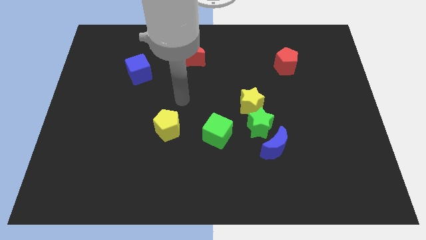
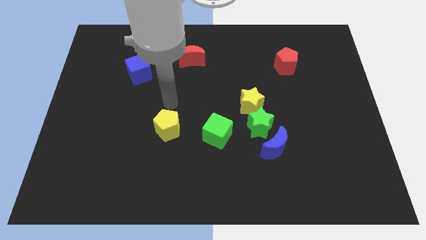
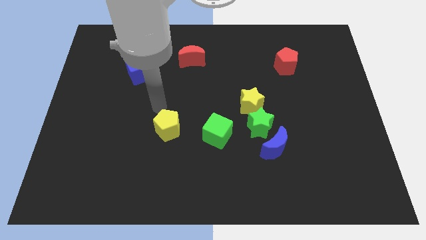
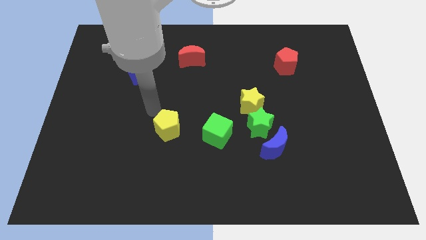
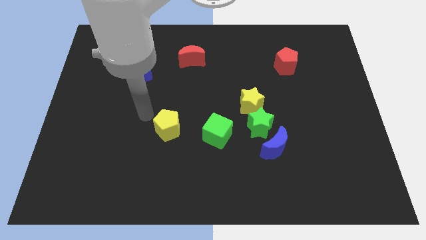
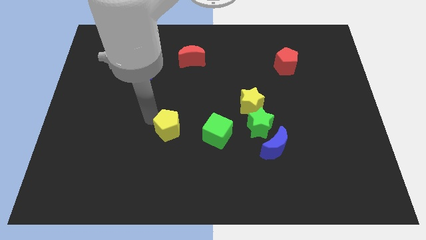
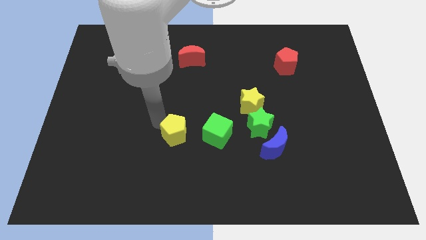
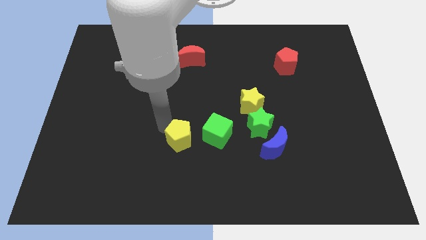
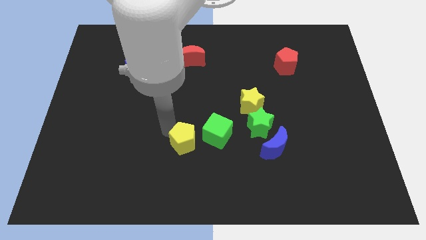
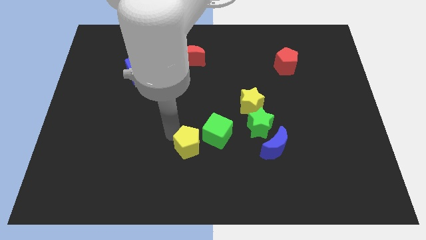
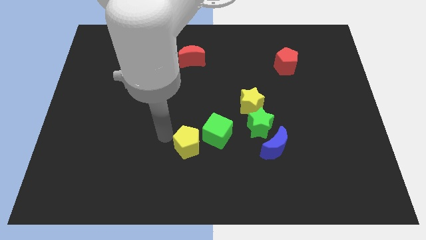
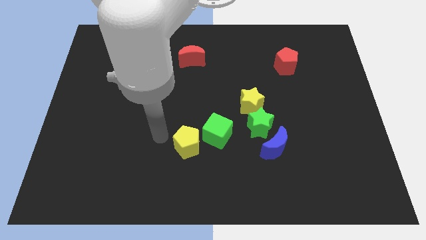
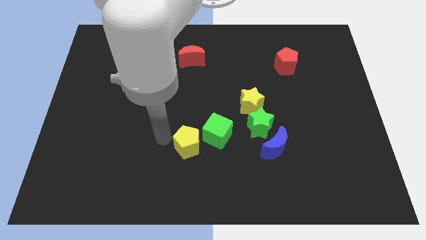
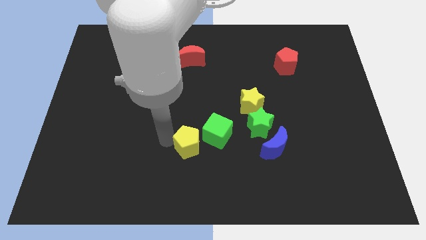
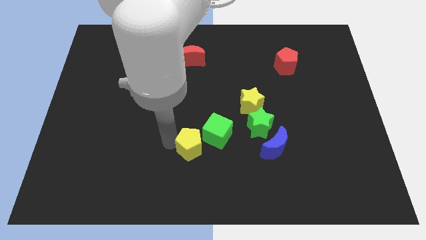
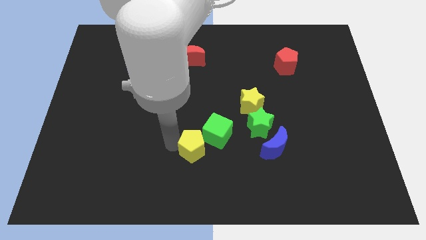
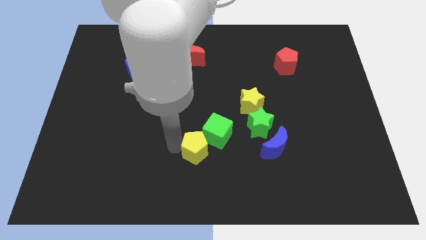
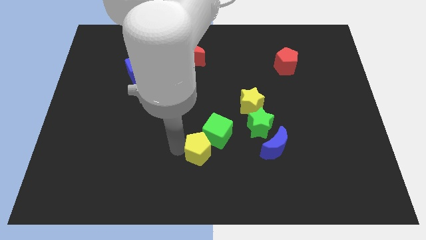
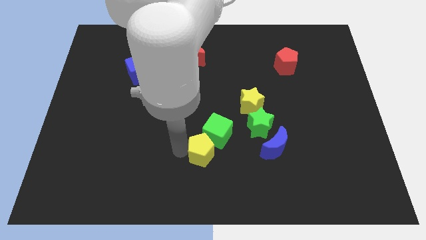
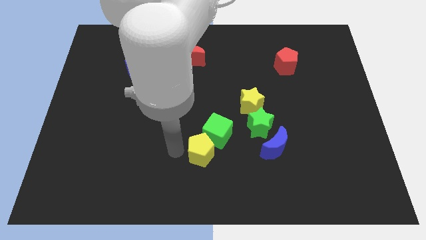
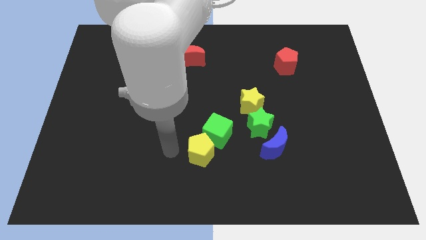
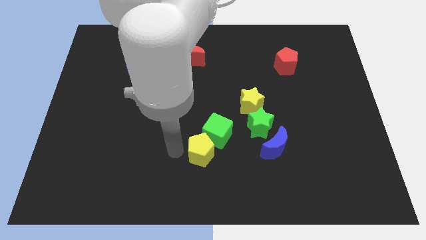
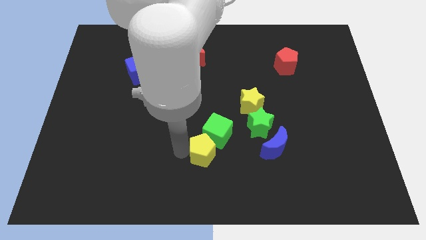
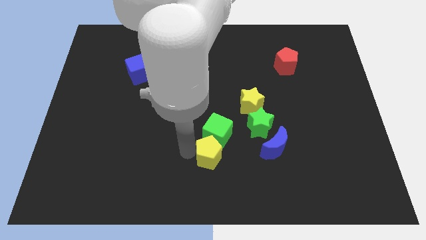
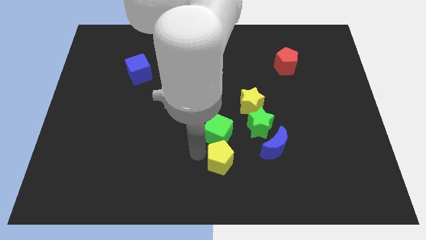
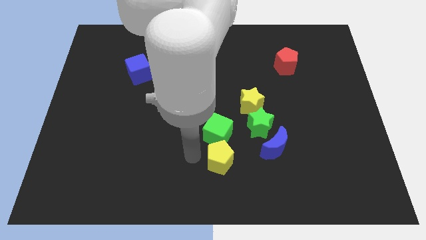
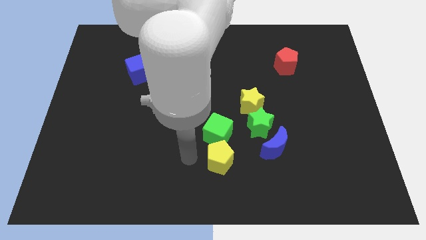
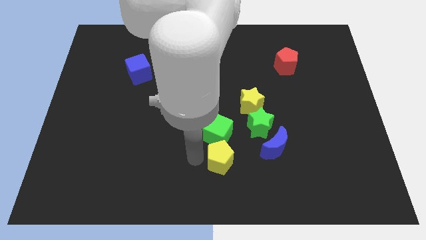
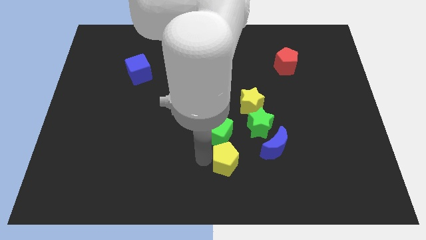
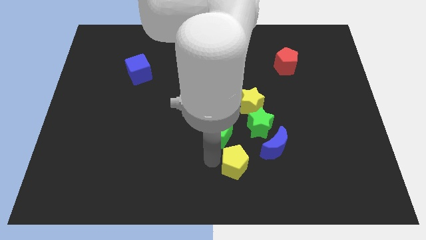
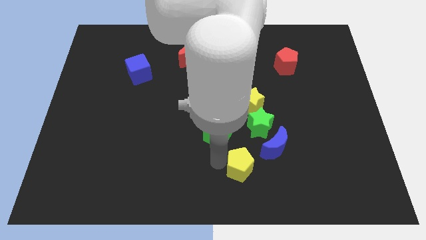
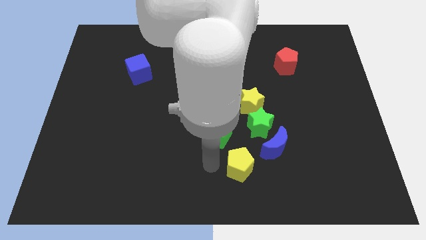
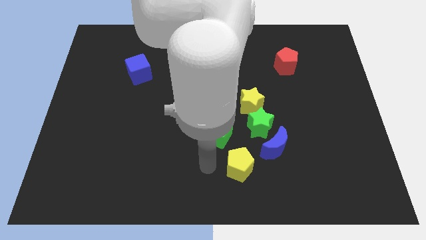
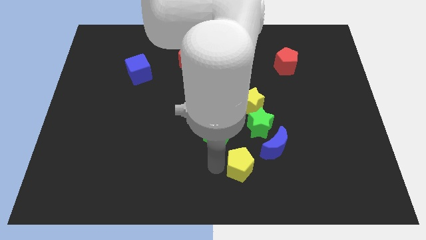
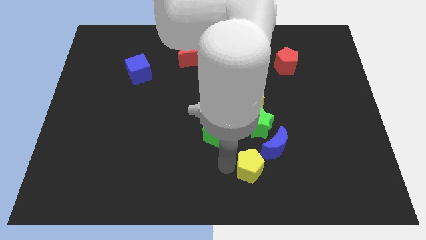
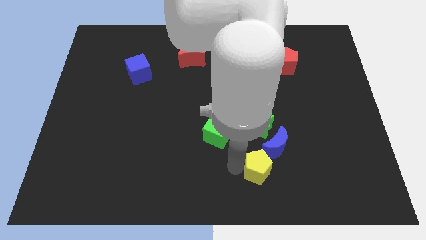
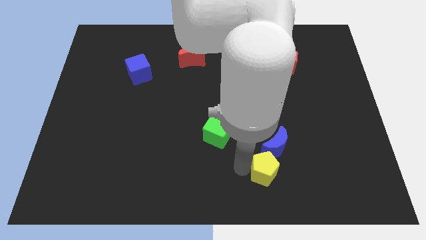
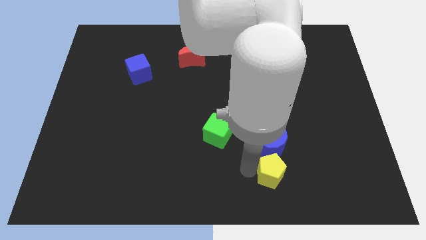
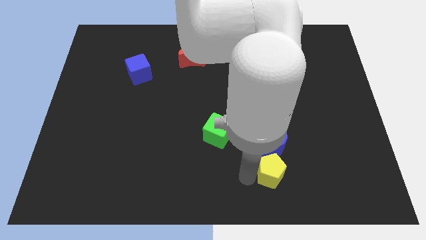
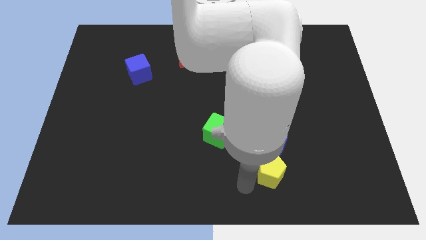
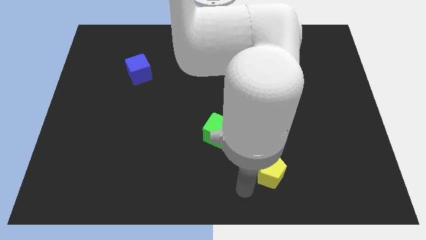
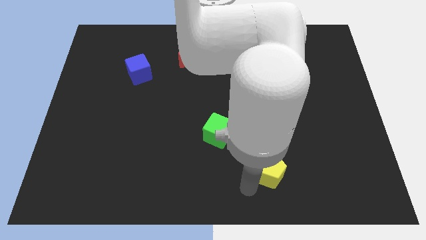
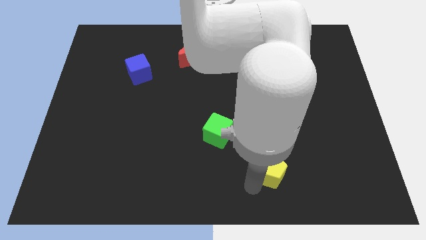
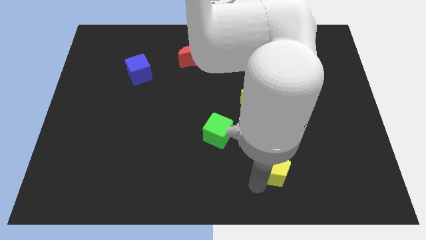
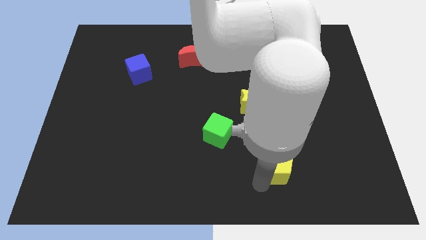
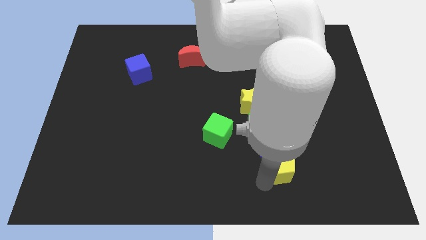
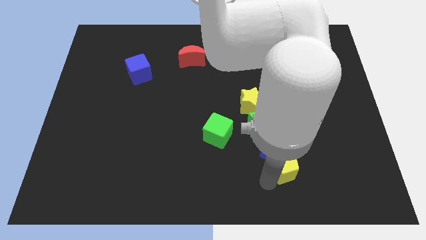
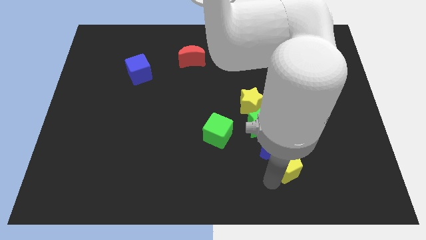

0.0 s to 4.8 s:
slide the yellow pentagon right

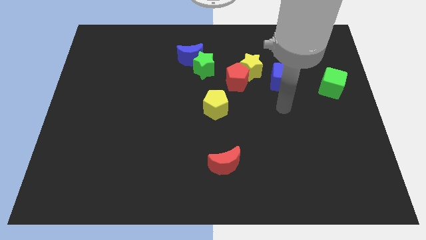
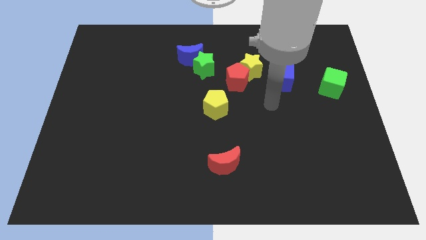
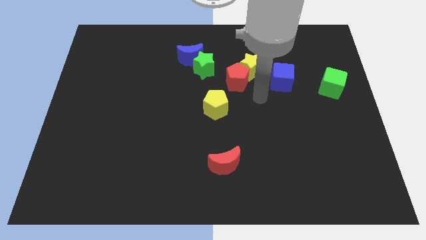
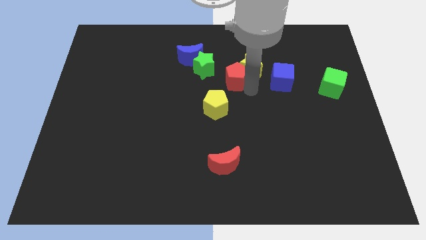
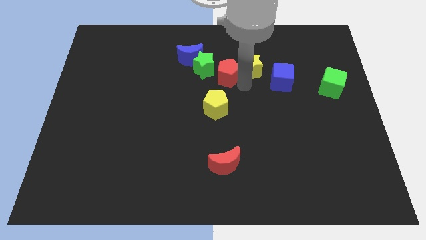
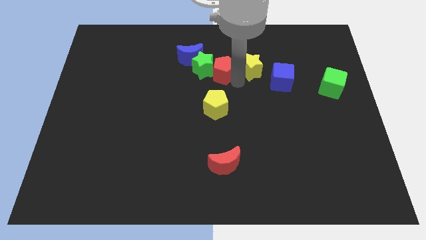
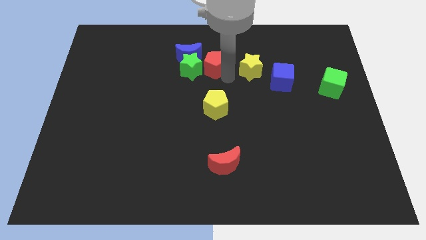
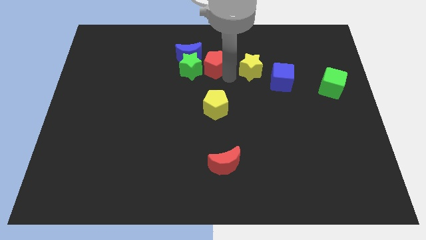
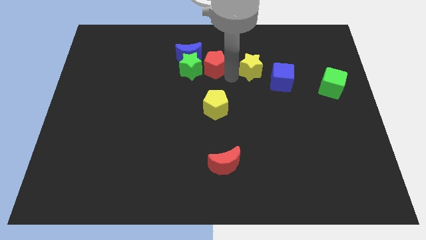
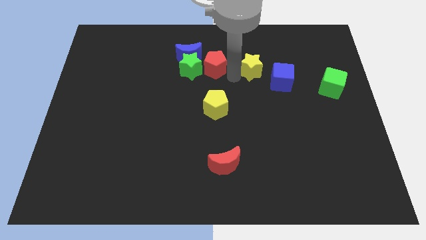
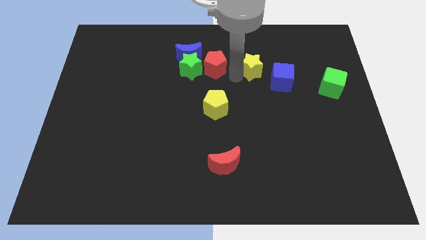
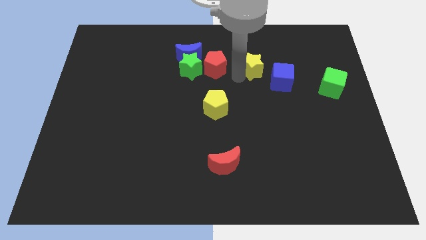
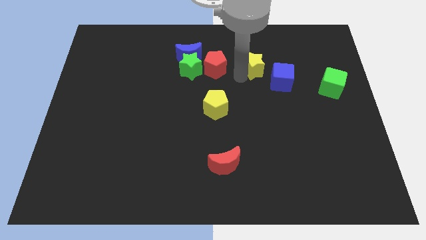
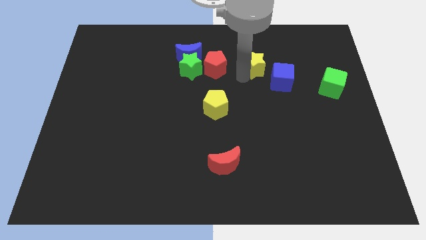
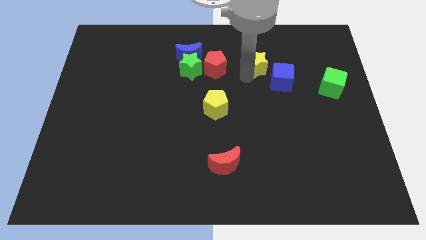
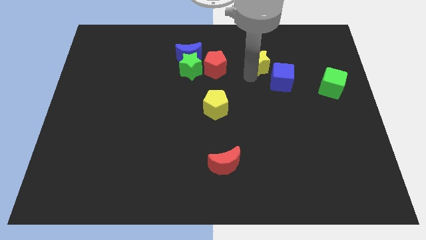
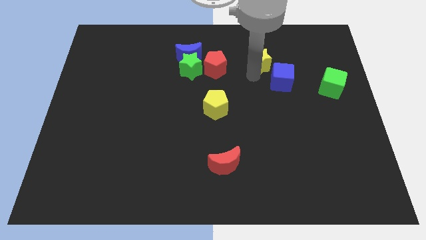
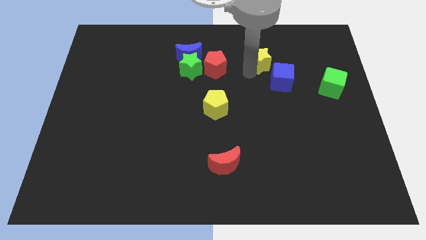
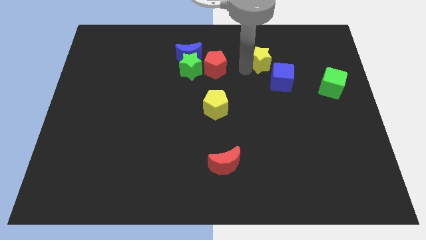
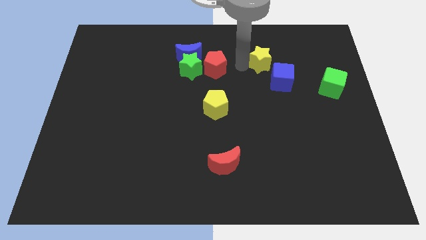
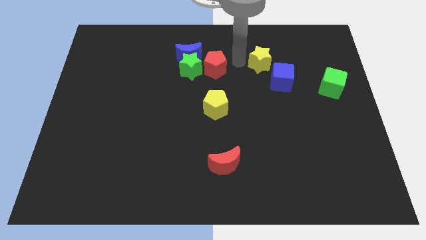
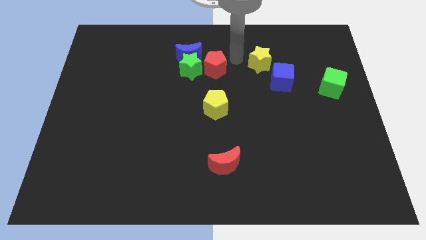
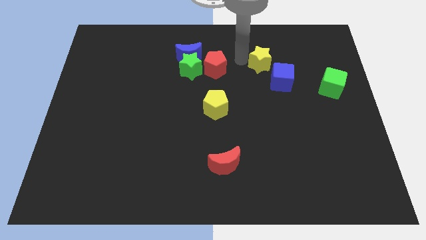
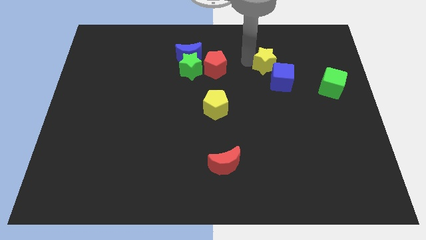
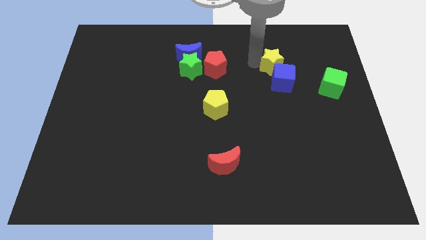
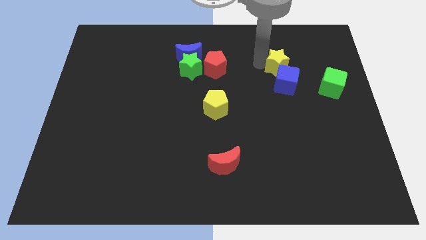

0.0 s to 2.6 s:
slightly slide the yellow star to the right

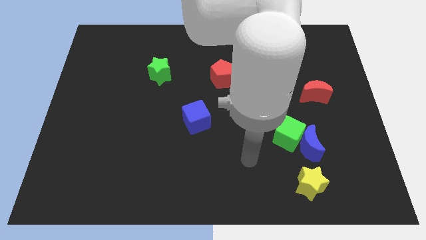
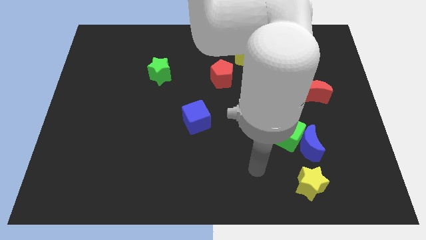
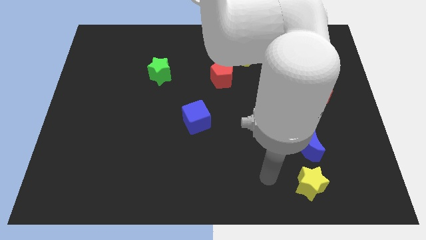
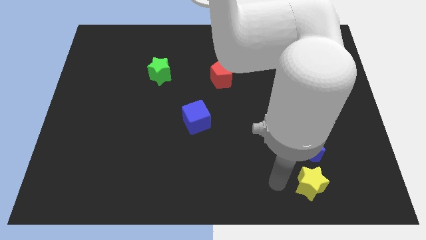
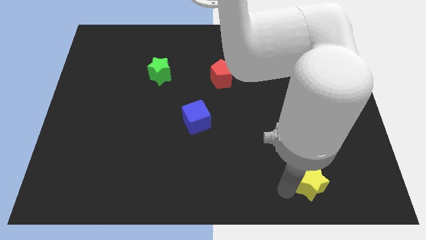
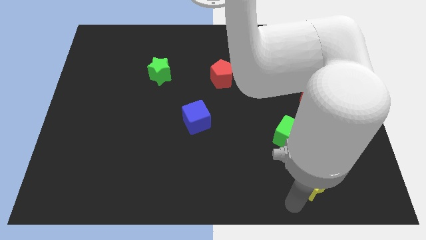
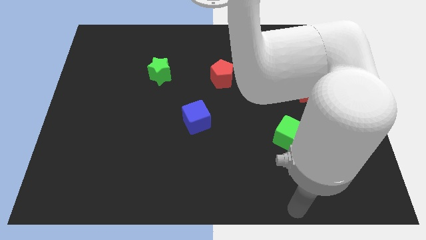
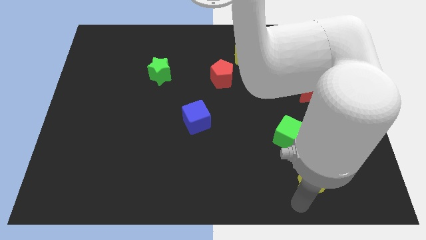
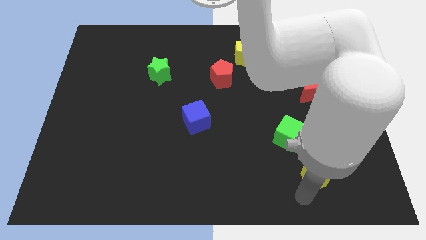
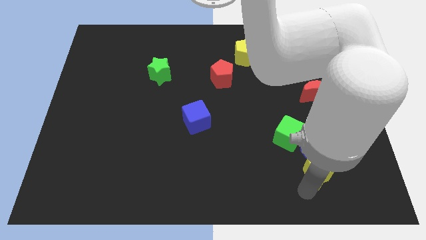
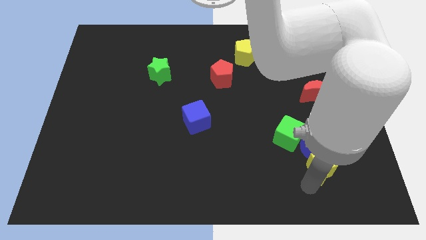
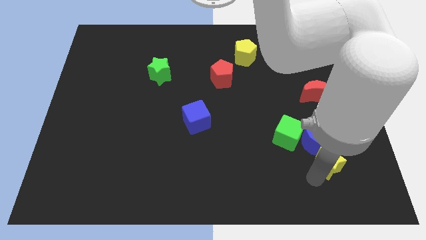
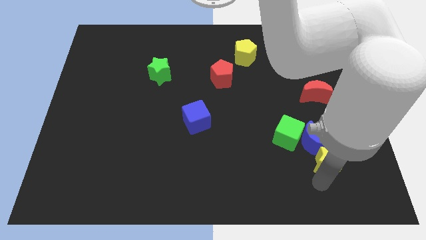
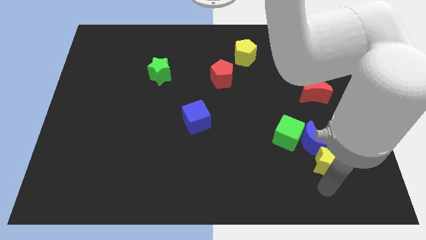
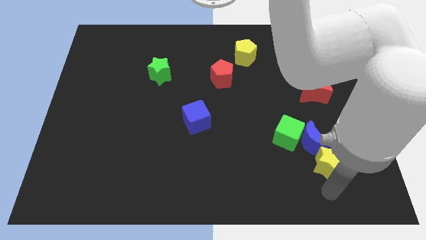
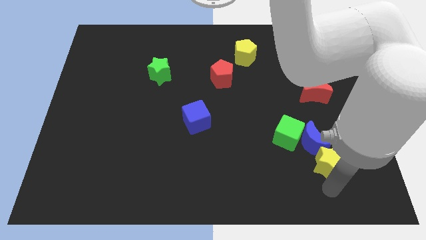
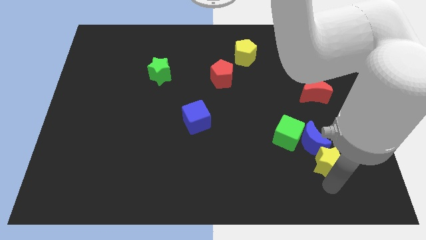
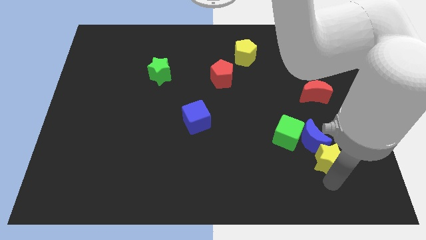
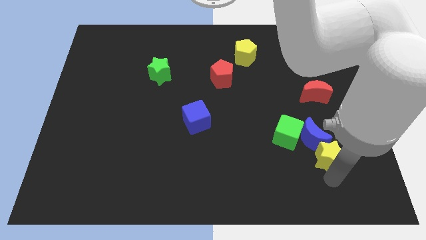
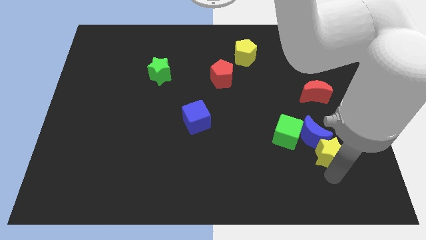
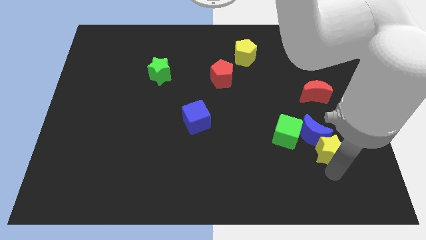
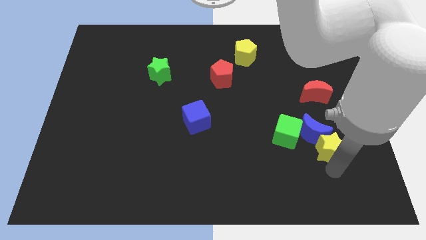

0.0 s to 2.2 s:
push the yellow star somewhat up
